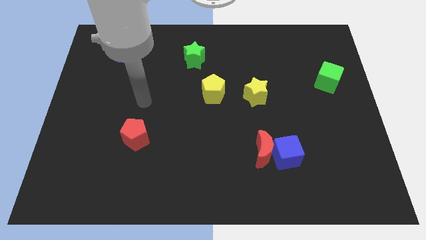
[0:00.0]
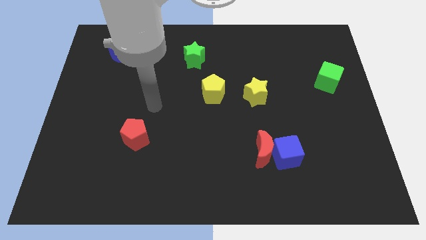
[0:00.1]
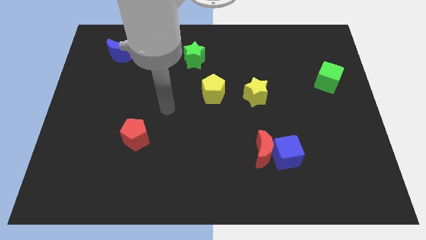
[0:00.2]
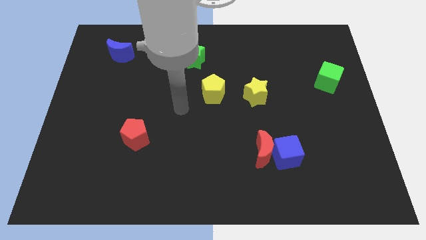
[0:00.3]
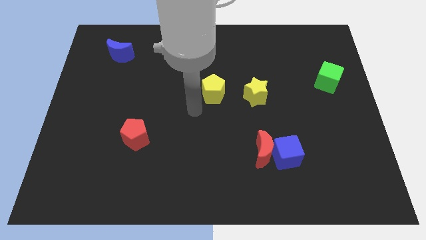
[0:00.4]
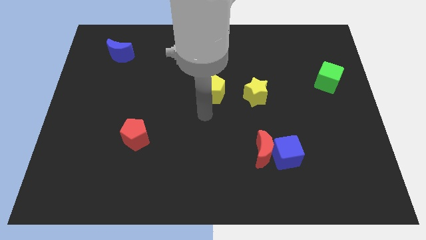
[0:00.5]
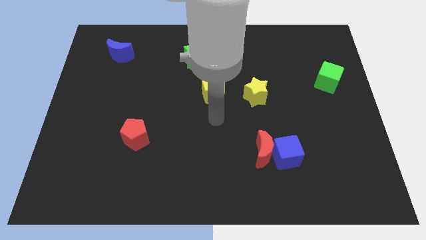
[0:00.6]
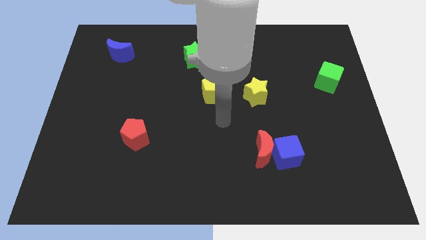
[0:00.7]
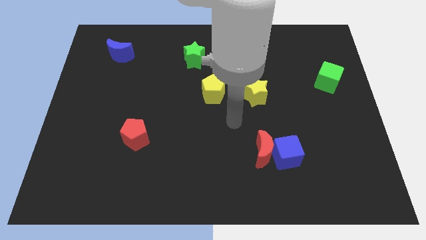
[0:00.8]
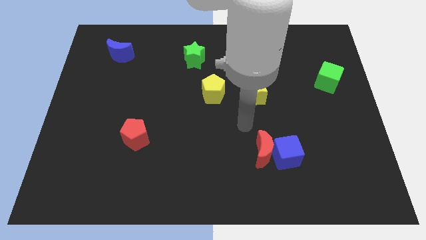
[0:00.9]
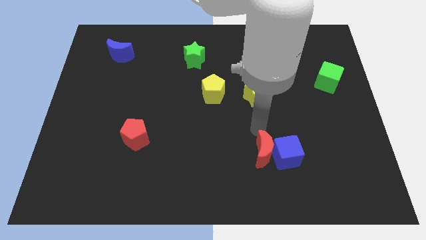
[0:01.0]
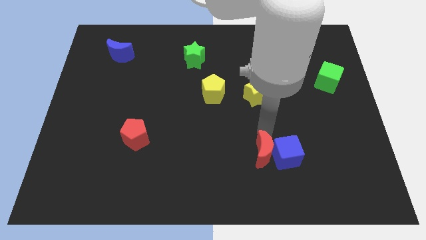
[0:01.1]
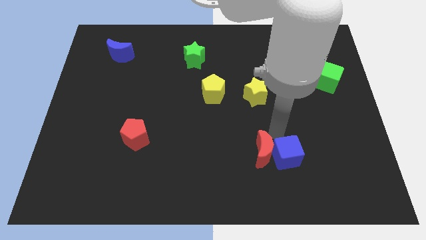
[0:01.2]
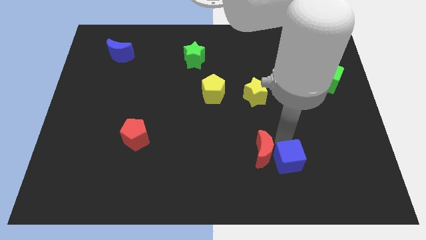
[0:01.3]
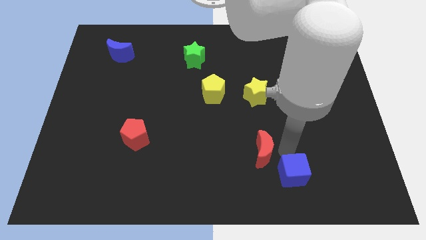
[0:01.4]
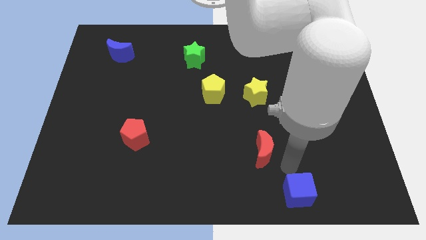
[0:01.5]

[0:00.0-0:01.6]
move the red moon away from the blue cube

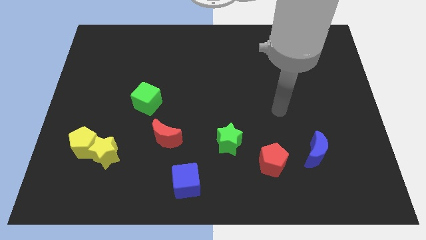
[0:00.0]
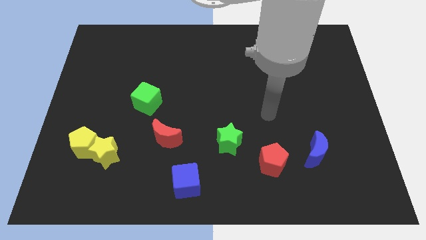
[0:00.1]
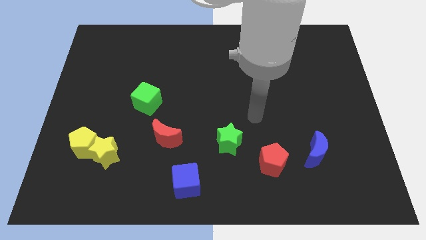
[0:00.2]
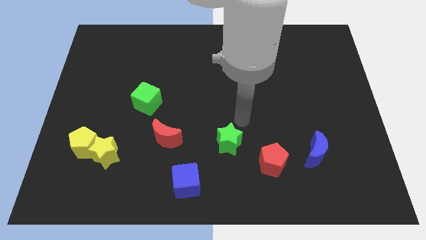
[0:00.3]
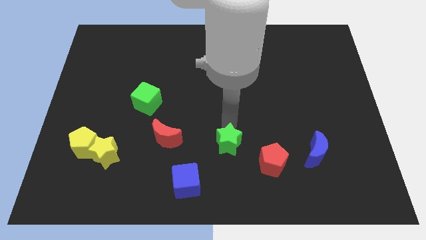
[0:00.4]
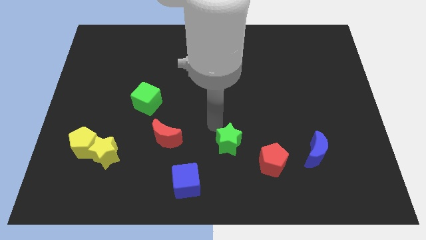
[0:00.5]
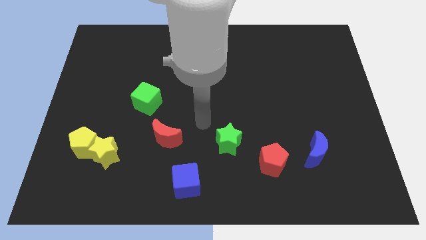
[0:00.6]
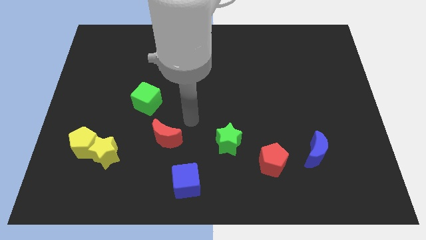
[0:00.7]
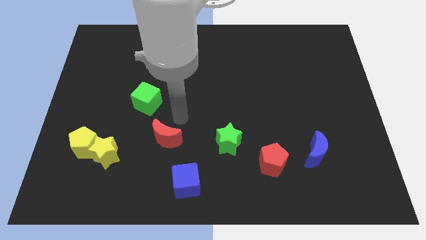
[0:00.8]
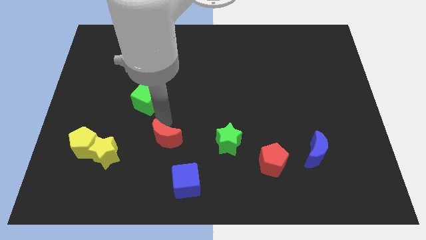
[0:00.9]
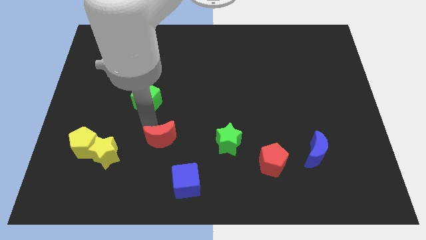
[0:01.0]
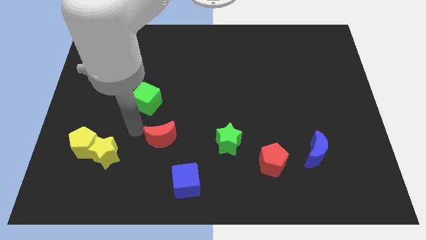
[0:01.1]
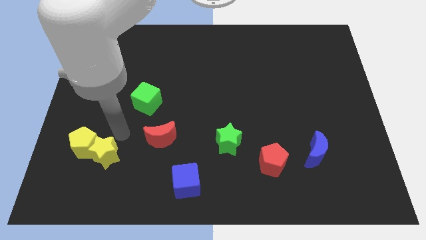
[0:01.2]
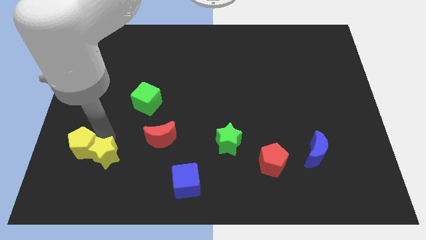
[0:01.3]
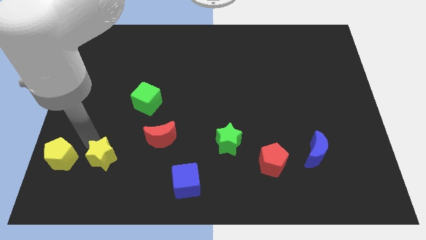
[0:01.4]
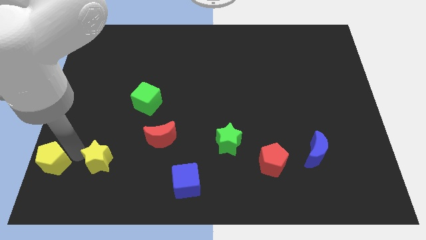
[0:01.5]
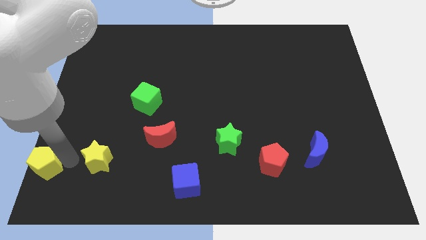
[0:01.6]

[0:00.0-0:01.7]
pull the yellow star apart from the yellow pentagon

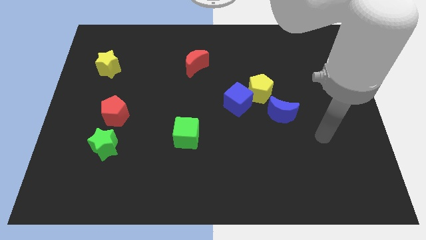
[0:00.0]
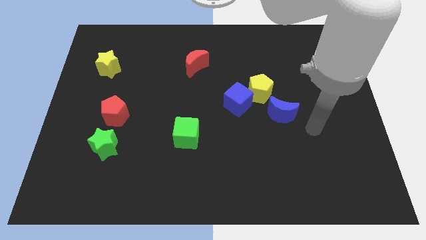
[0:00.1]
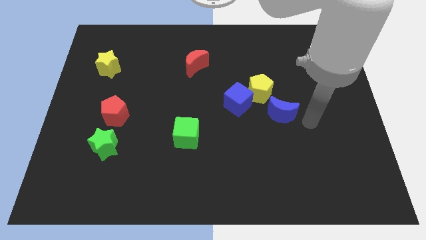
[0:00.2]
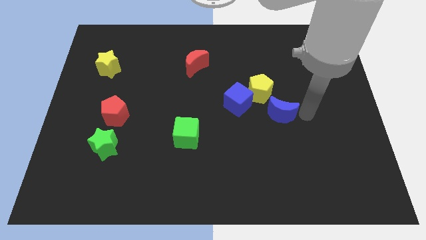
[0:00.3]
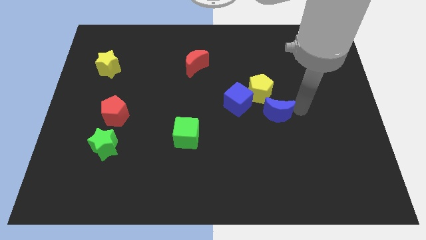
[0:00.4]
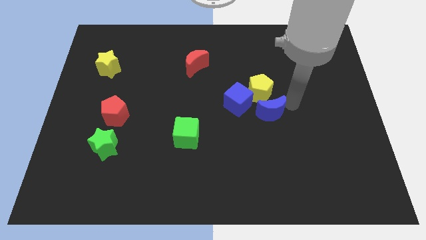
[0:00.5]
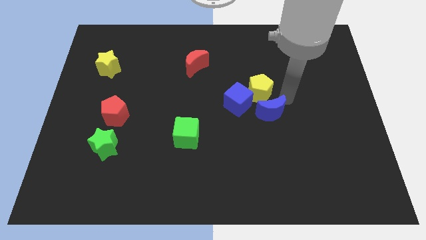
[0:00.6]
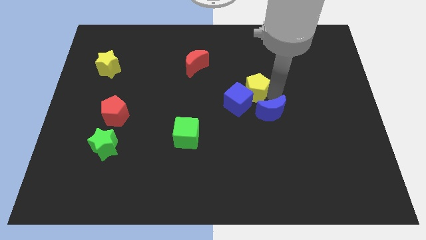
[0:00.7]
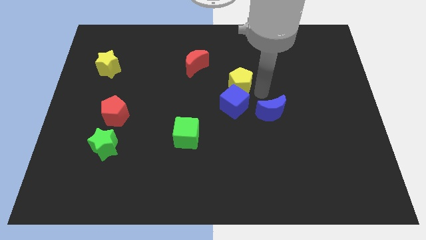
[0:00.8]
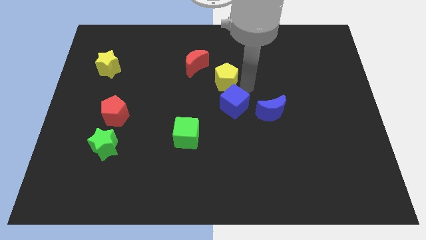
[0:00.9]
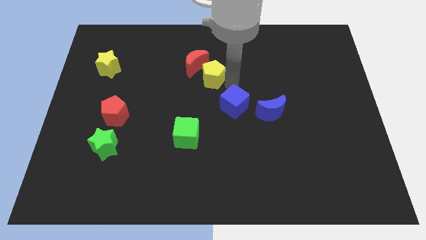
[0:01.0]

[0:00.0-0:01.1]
move the blue cube away from the yellow pentagon

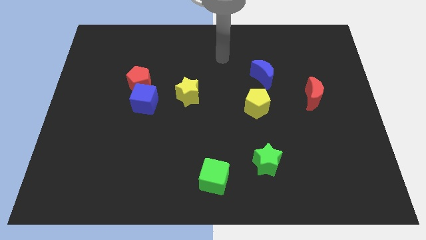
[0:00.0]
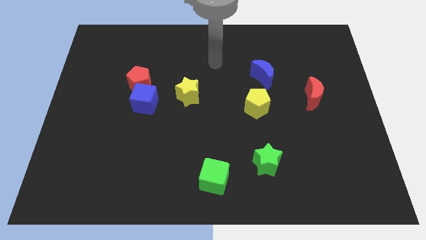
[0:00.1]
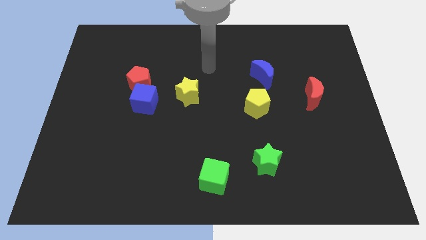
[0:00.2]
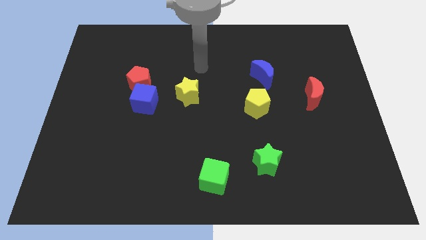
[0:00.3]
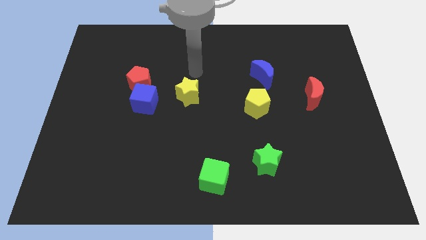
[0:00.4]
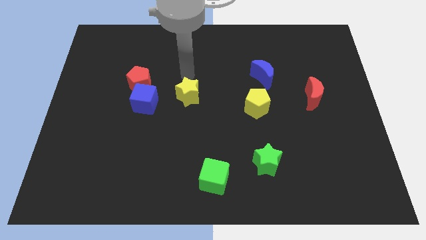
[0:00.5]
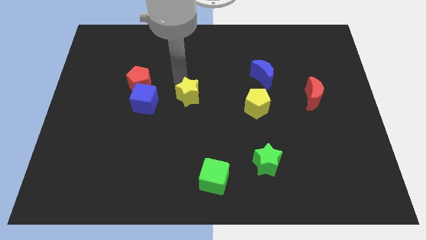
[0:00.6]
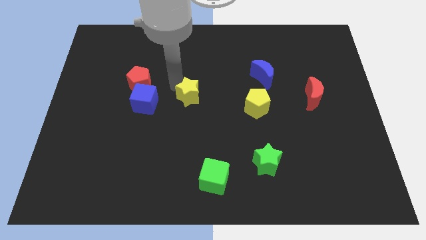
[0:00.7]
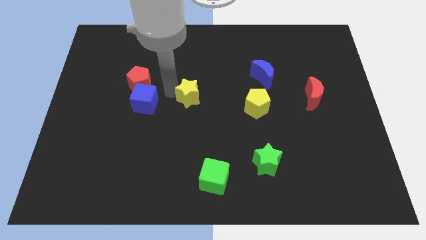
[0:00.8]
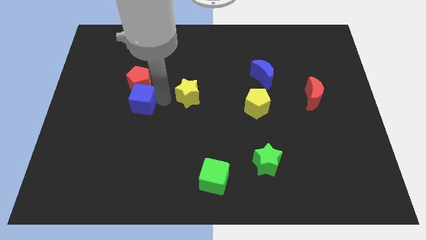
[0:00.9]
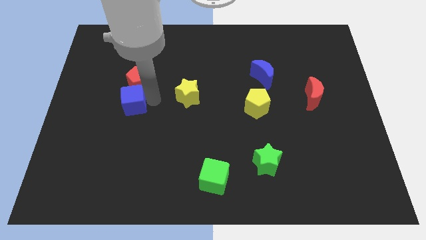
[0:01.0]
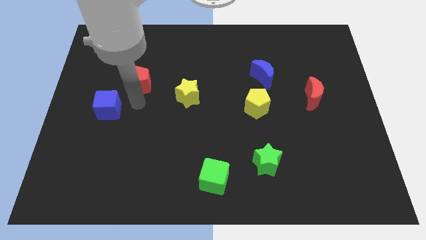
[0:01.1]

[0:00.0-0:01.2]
separate the red pentagon from the blue cube

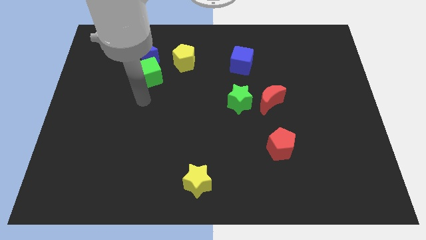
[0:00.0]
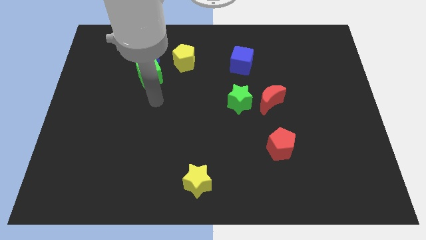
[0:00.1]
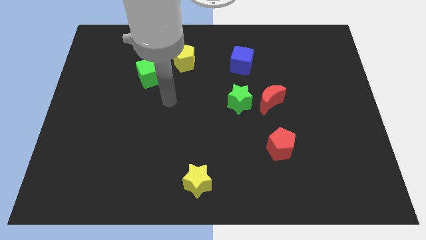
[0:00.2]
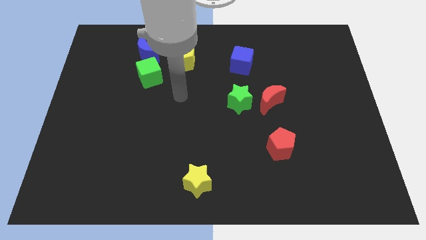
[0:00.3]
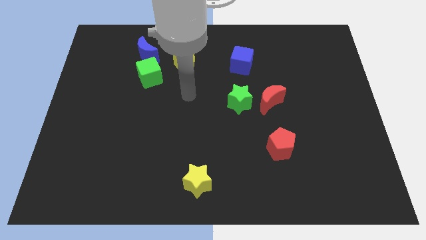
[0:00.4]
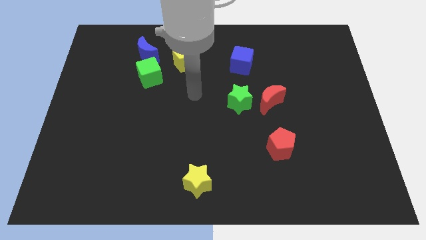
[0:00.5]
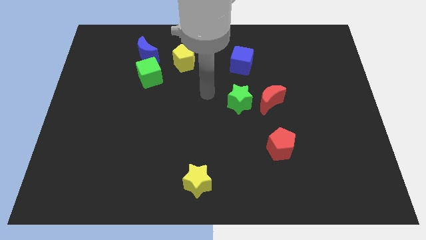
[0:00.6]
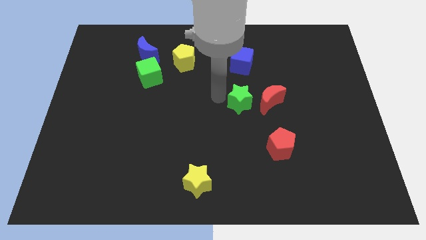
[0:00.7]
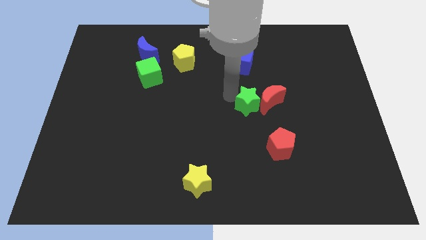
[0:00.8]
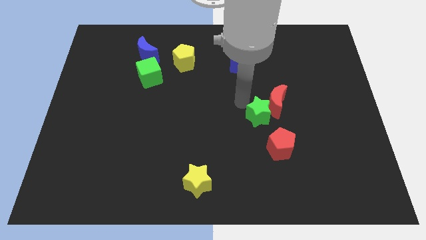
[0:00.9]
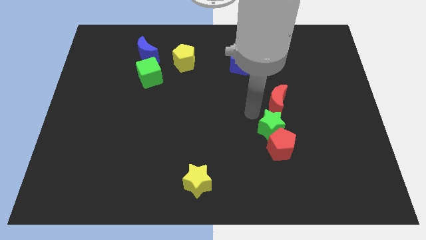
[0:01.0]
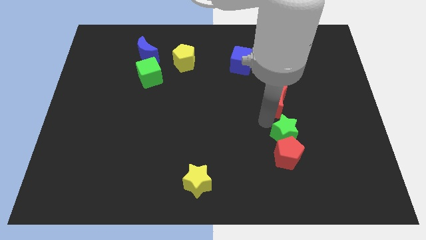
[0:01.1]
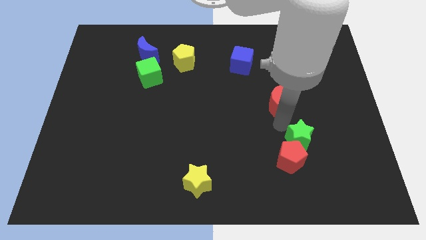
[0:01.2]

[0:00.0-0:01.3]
separate the red moon from the green star

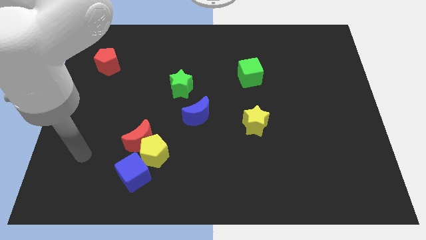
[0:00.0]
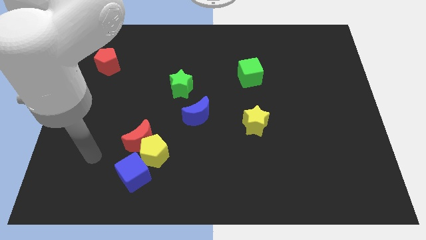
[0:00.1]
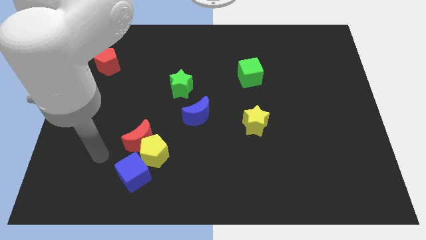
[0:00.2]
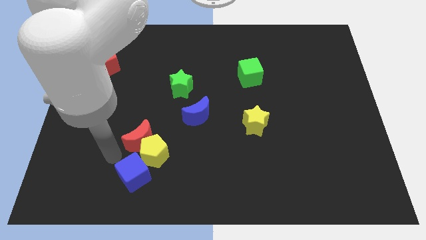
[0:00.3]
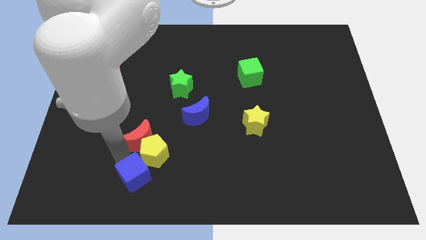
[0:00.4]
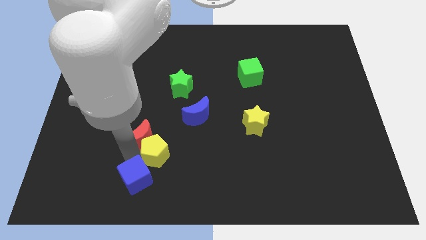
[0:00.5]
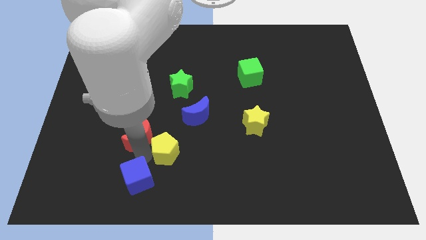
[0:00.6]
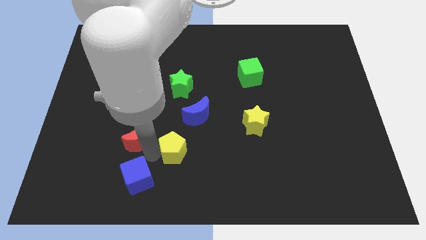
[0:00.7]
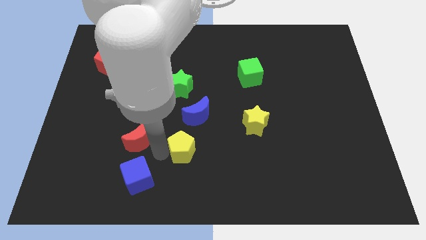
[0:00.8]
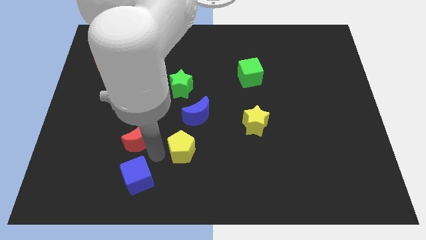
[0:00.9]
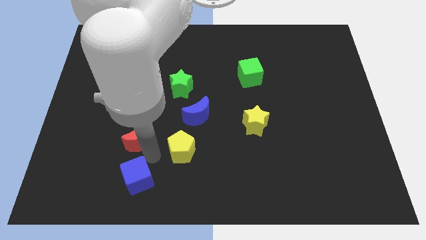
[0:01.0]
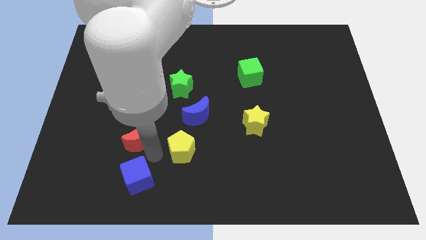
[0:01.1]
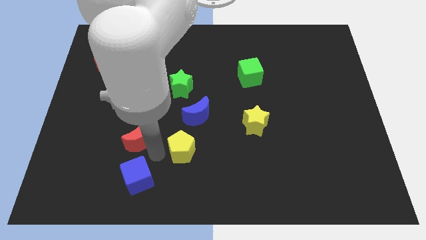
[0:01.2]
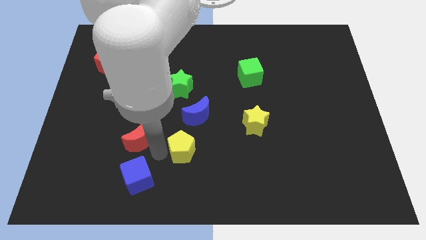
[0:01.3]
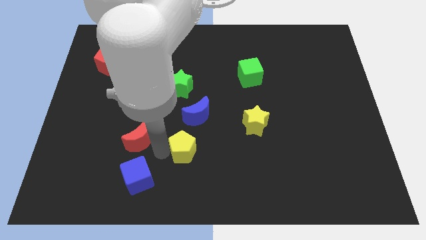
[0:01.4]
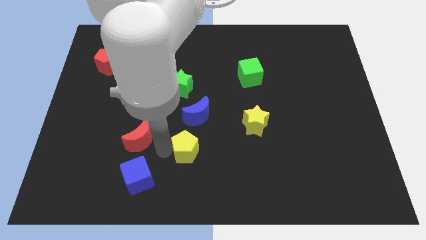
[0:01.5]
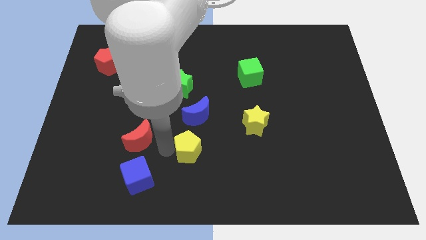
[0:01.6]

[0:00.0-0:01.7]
pull the yellow pentagon apart from the red moon and blue cube

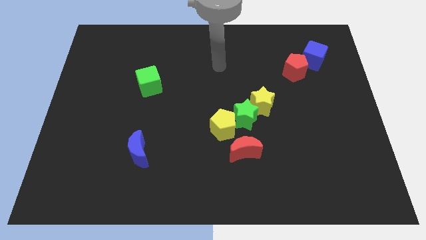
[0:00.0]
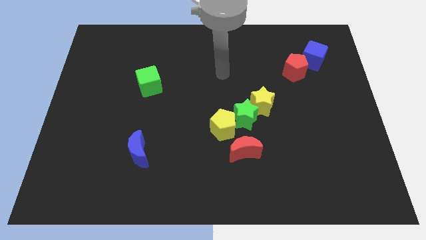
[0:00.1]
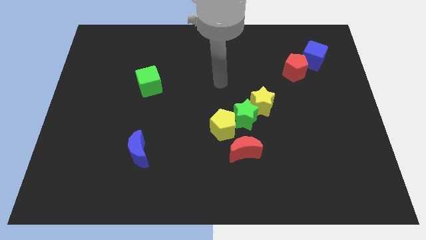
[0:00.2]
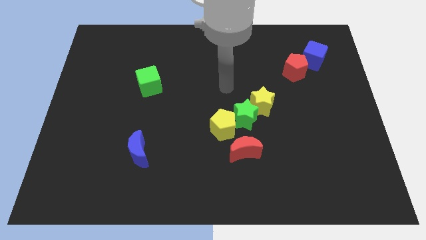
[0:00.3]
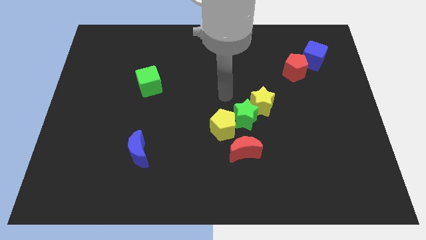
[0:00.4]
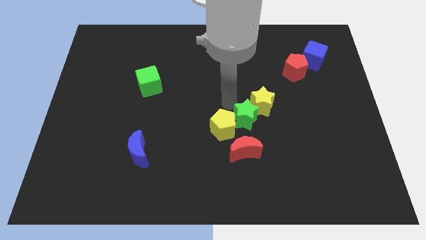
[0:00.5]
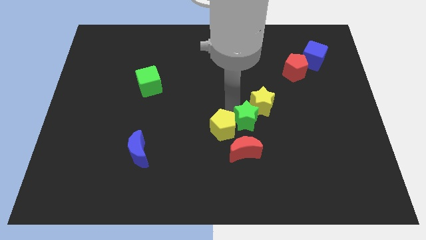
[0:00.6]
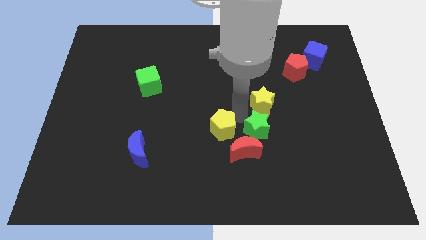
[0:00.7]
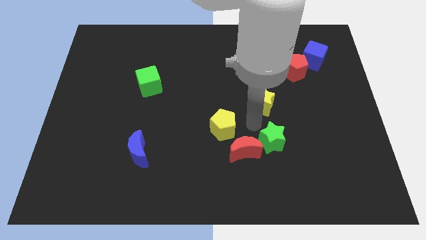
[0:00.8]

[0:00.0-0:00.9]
pull the yellow star apart from the green star
